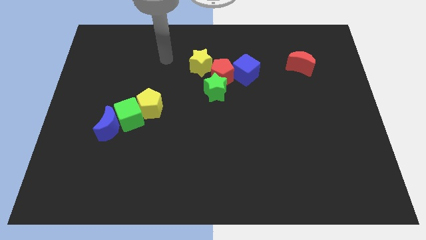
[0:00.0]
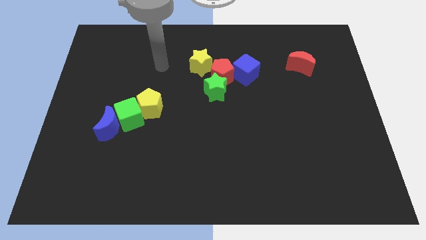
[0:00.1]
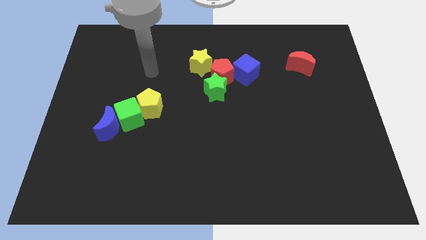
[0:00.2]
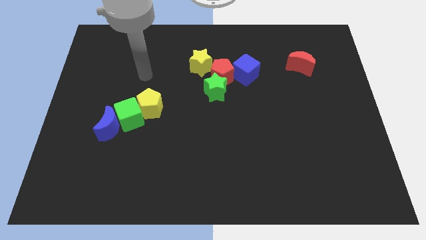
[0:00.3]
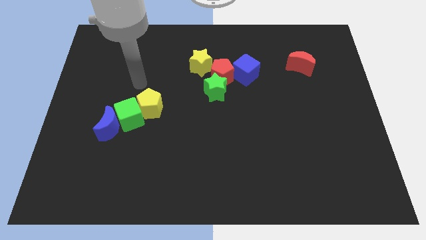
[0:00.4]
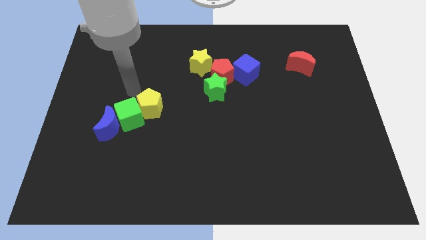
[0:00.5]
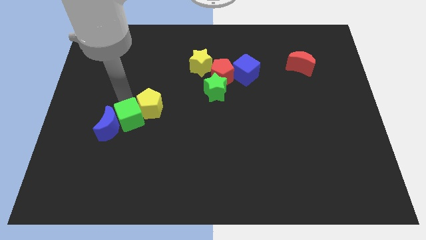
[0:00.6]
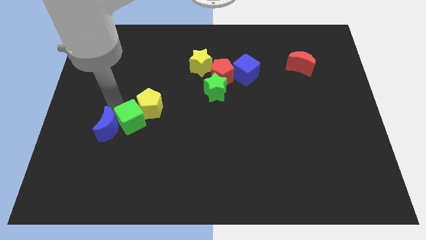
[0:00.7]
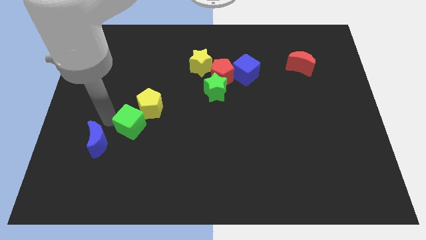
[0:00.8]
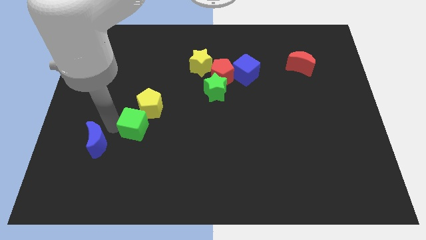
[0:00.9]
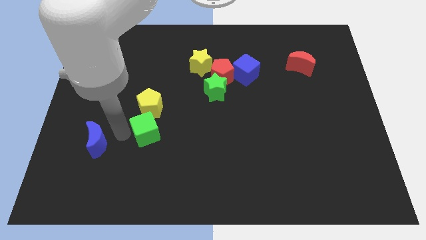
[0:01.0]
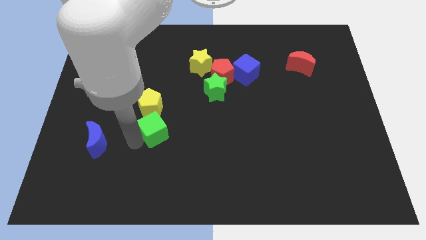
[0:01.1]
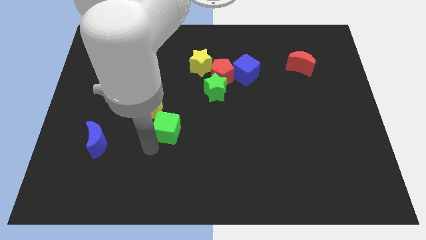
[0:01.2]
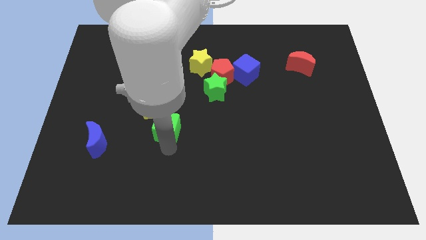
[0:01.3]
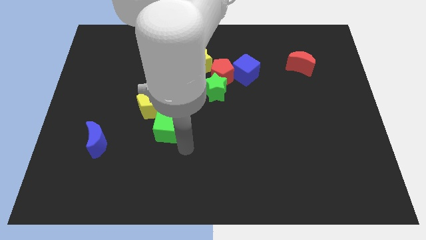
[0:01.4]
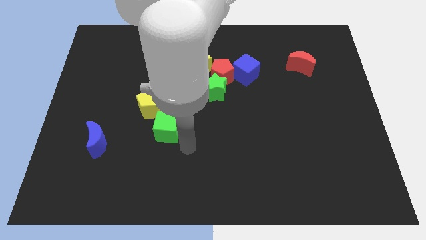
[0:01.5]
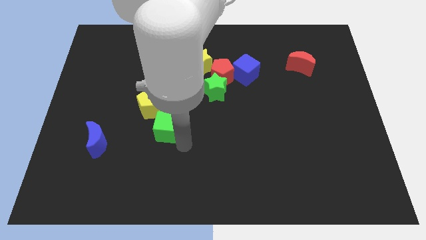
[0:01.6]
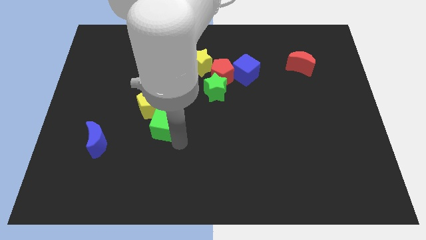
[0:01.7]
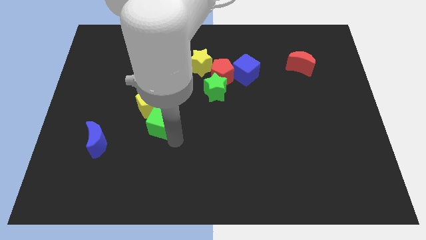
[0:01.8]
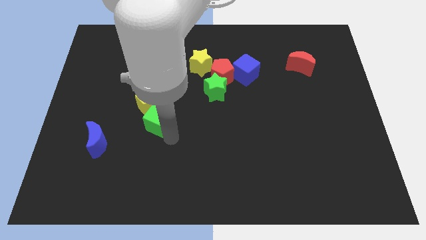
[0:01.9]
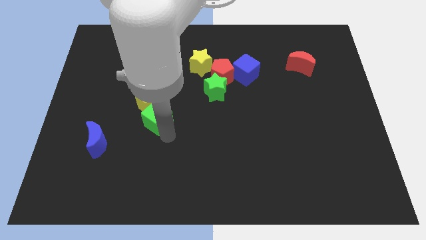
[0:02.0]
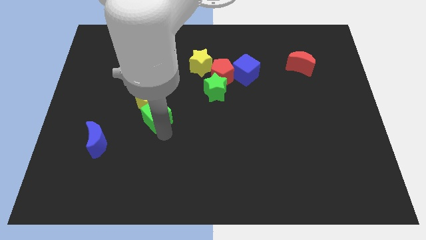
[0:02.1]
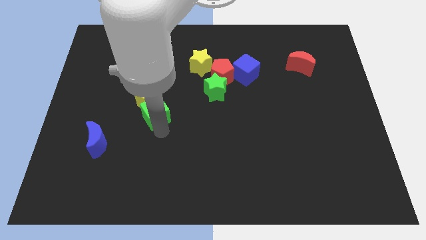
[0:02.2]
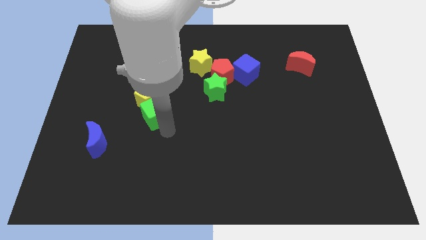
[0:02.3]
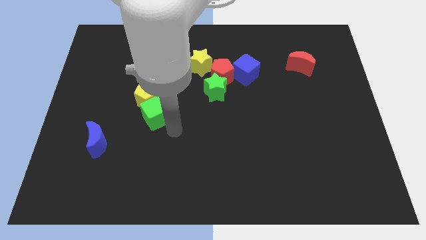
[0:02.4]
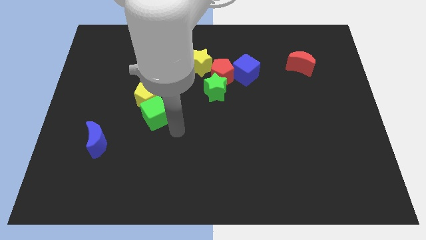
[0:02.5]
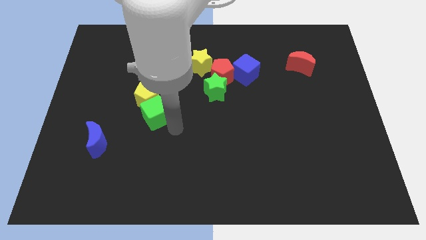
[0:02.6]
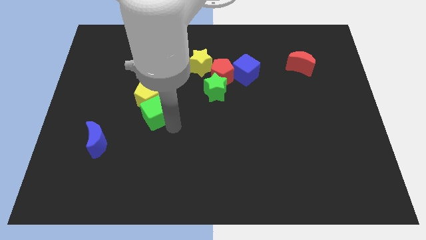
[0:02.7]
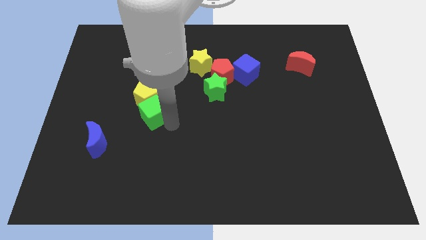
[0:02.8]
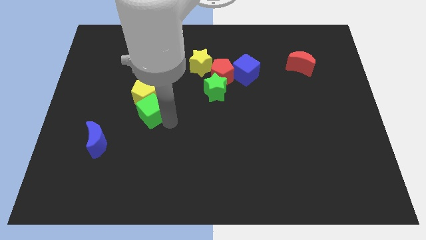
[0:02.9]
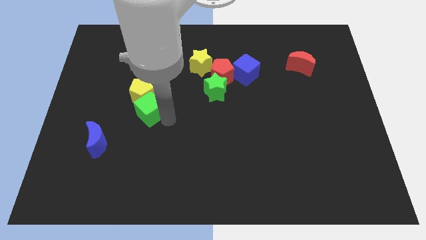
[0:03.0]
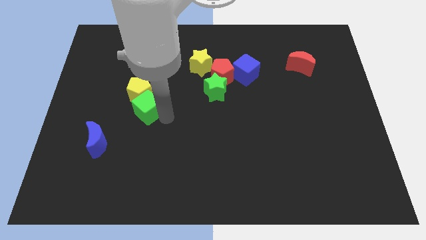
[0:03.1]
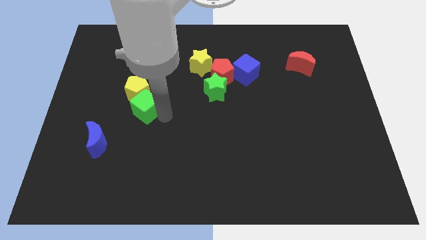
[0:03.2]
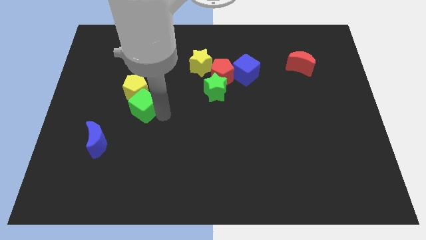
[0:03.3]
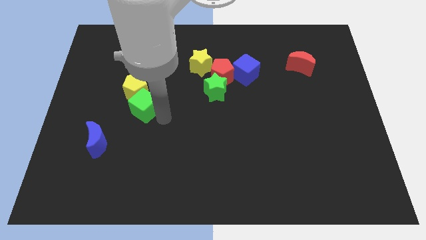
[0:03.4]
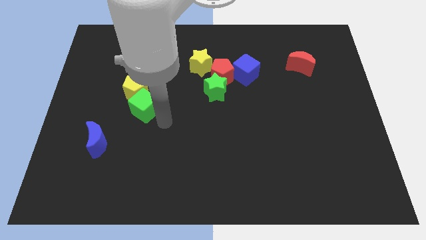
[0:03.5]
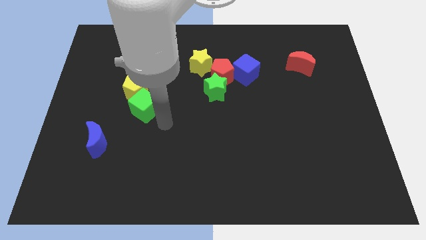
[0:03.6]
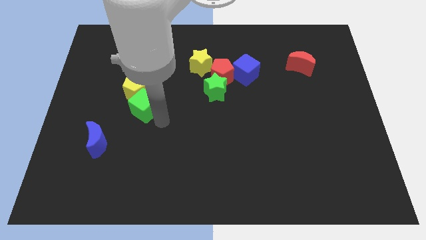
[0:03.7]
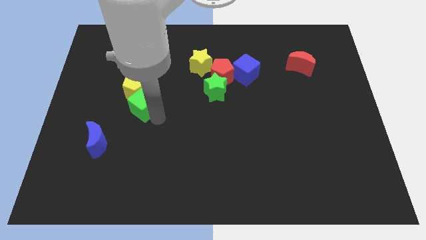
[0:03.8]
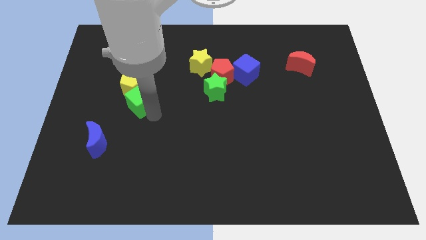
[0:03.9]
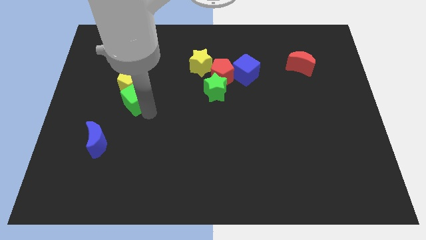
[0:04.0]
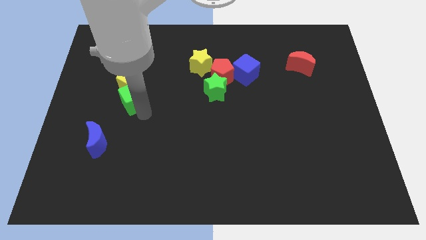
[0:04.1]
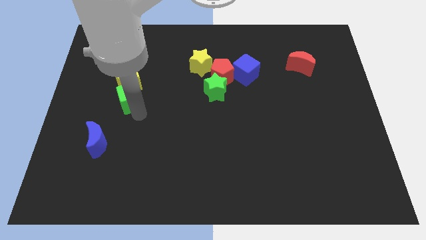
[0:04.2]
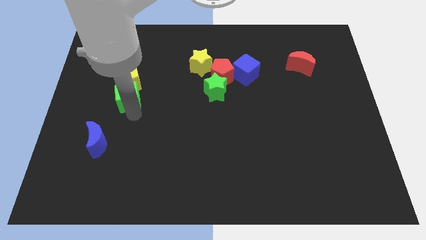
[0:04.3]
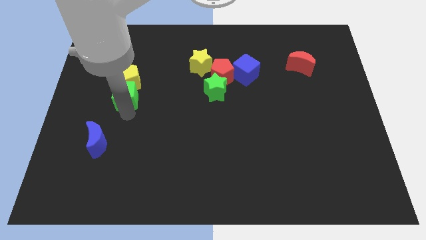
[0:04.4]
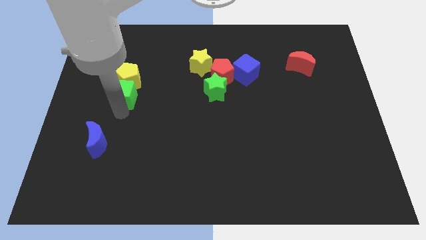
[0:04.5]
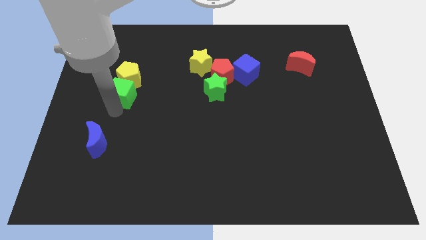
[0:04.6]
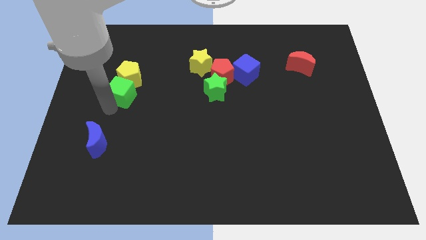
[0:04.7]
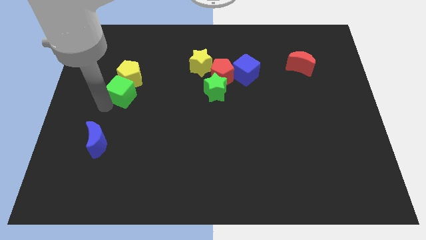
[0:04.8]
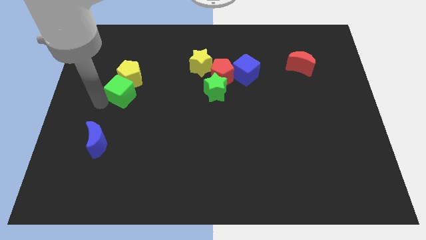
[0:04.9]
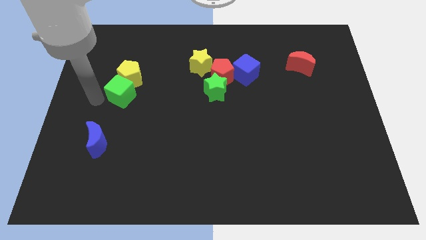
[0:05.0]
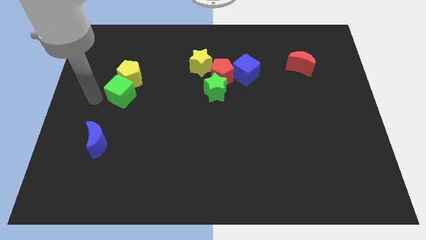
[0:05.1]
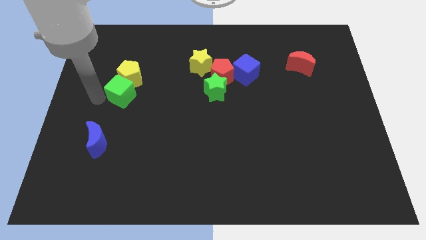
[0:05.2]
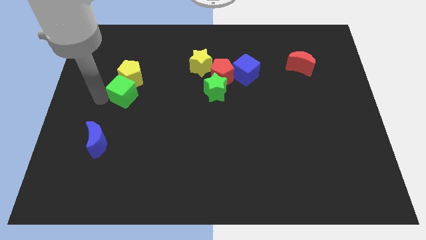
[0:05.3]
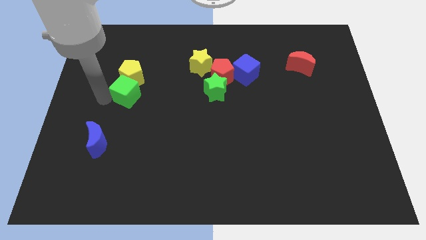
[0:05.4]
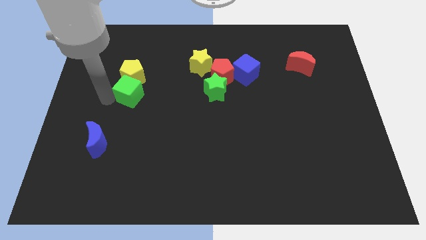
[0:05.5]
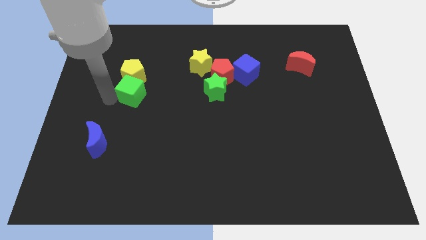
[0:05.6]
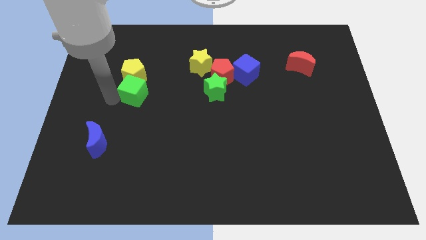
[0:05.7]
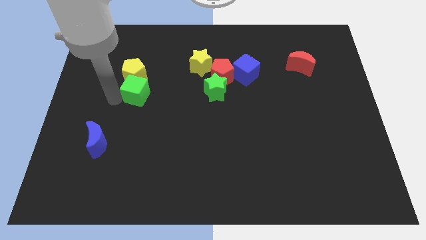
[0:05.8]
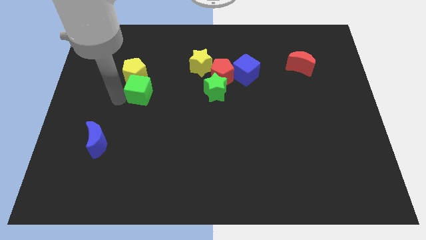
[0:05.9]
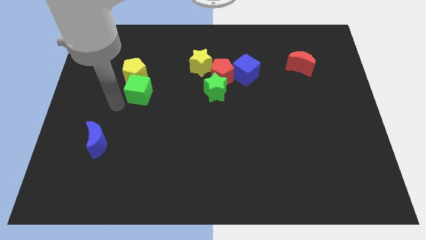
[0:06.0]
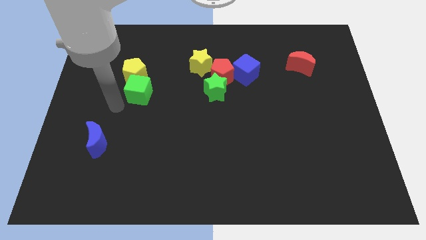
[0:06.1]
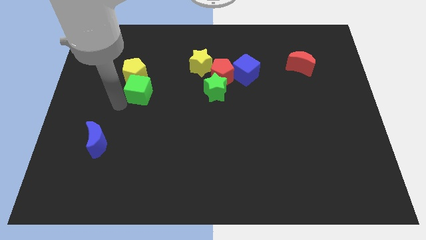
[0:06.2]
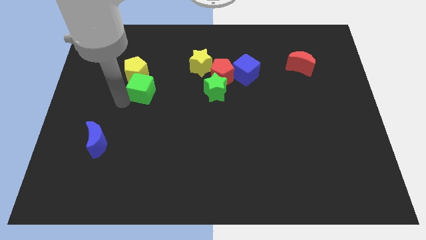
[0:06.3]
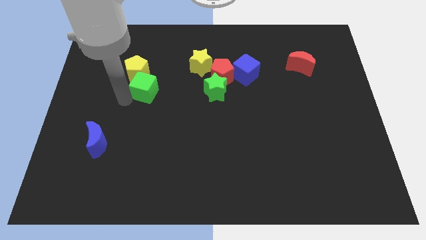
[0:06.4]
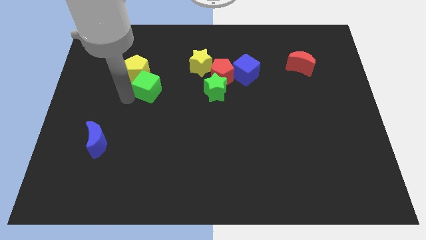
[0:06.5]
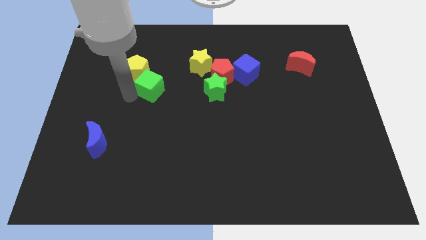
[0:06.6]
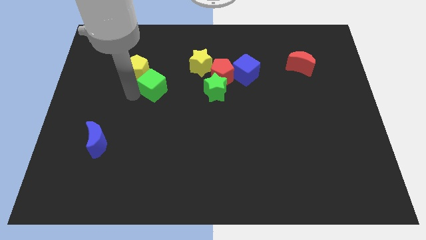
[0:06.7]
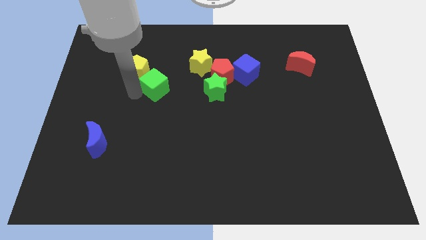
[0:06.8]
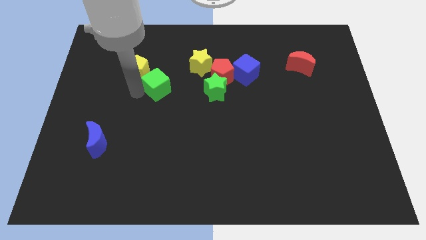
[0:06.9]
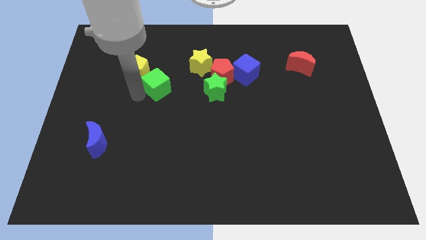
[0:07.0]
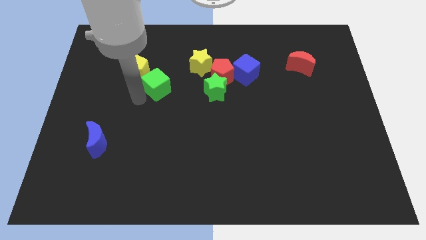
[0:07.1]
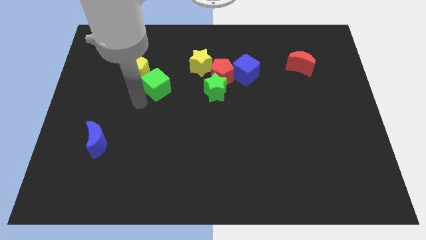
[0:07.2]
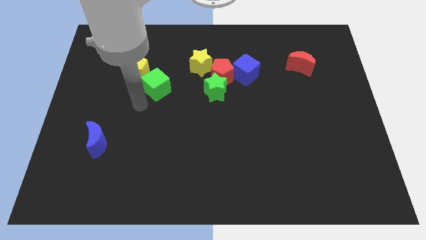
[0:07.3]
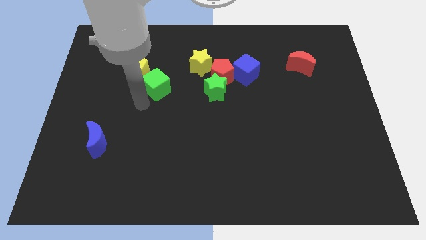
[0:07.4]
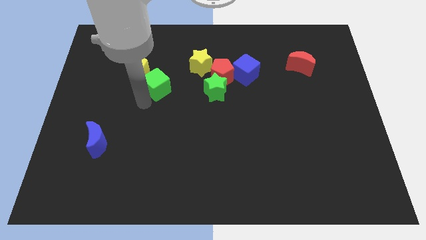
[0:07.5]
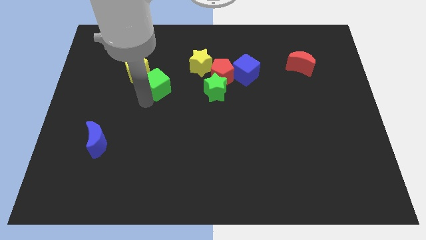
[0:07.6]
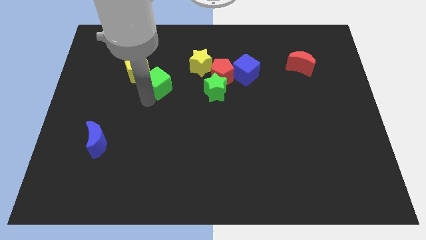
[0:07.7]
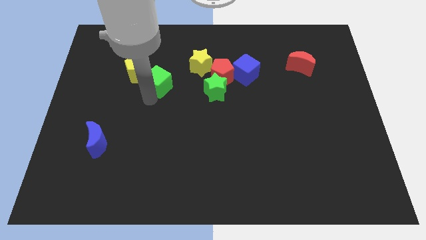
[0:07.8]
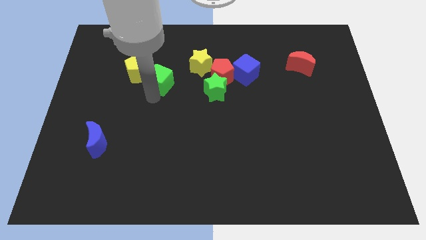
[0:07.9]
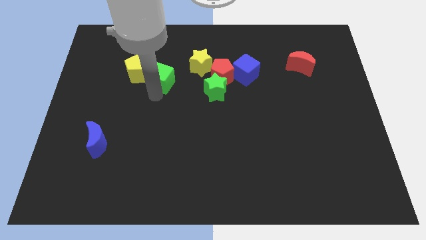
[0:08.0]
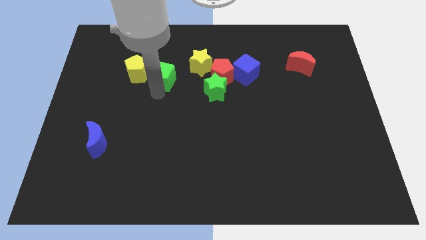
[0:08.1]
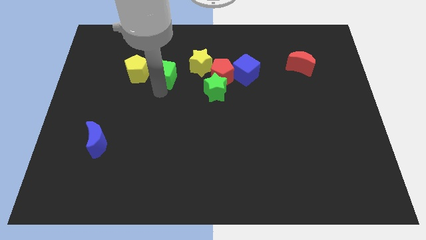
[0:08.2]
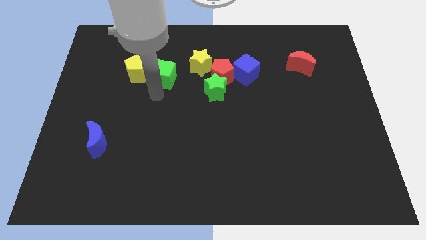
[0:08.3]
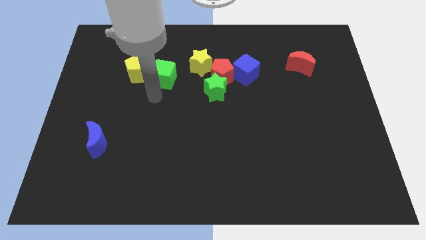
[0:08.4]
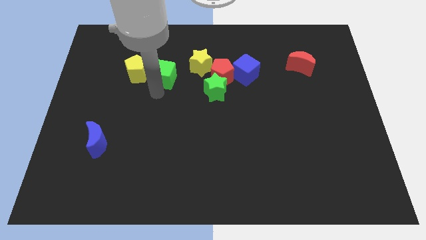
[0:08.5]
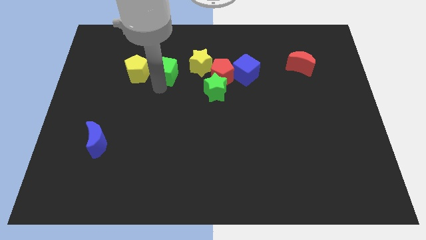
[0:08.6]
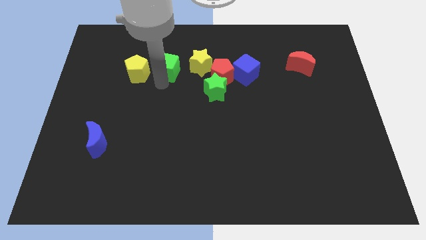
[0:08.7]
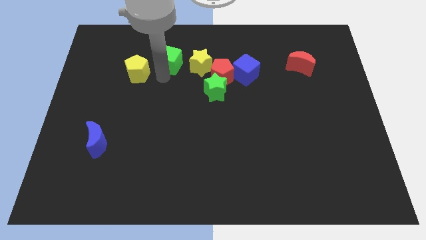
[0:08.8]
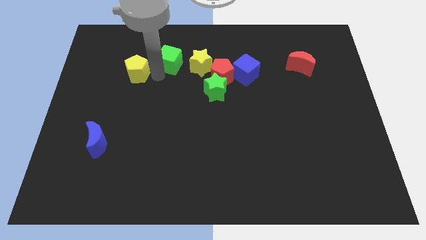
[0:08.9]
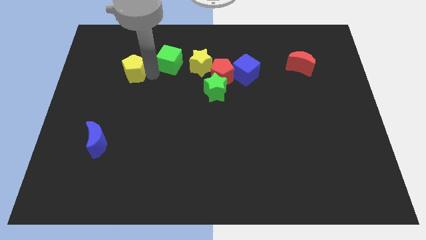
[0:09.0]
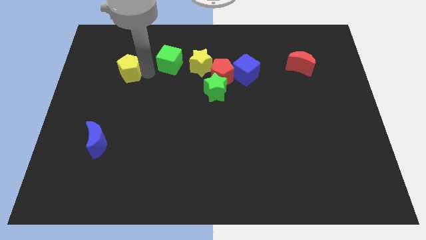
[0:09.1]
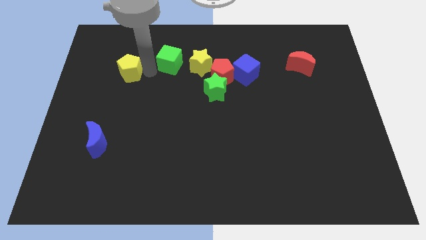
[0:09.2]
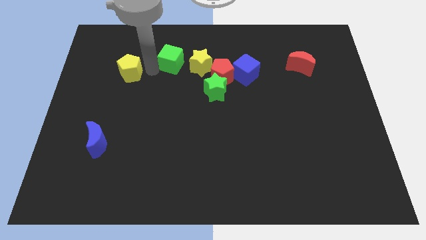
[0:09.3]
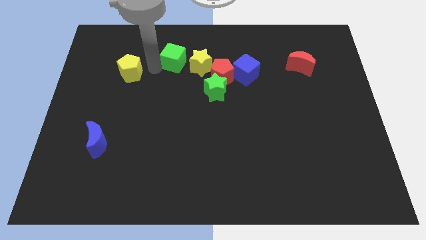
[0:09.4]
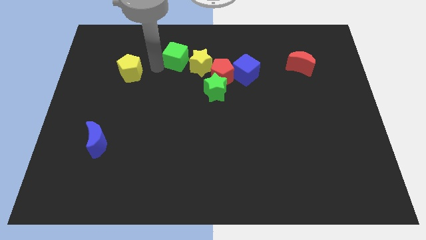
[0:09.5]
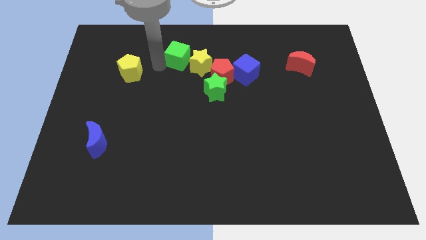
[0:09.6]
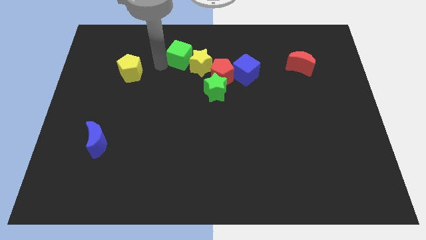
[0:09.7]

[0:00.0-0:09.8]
slide the green cube diagonally up and to the left of the red pentagon
